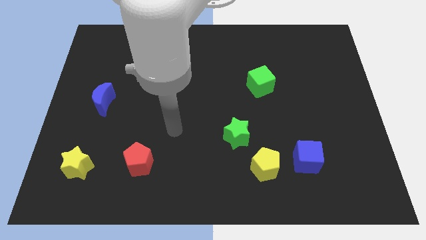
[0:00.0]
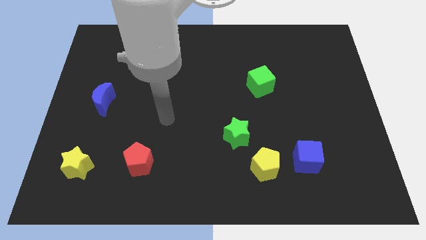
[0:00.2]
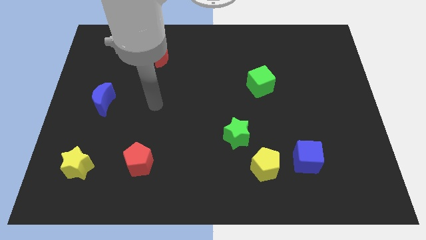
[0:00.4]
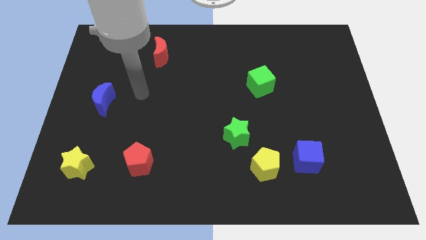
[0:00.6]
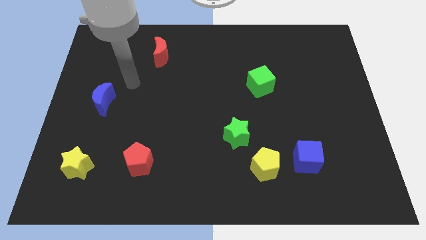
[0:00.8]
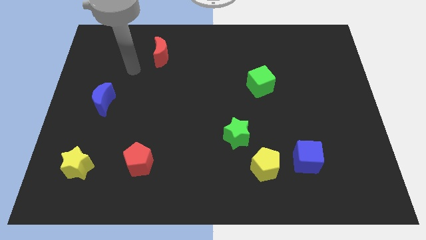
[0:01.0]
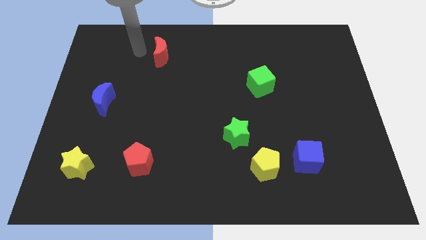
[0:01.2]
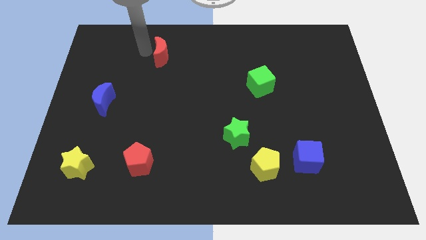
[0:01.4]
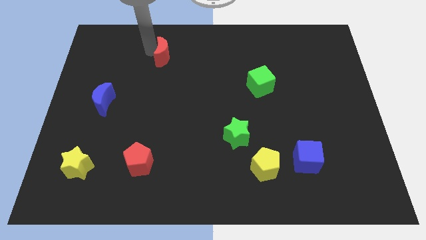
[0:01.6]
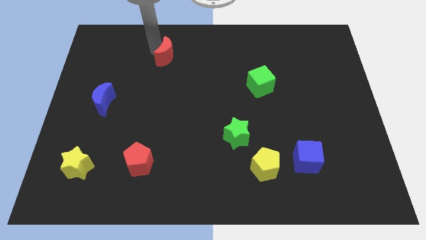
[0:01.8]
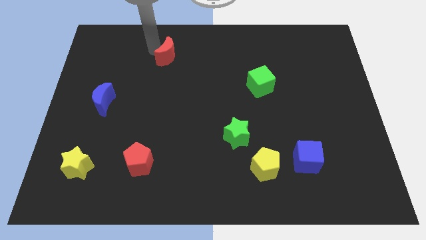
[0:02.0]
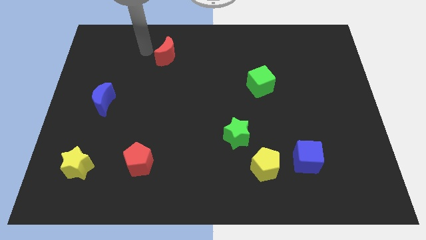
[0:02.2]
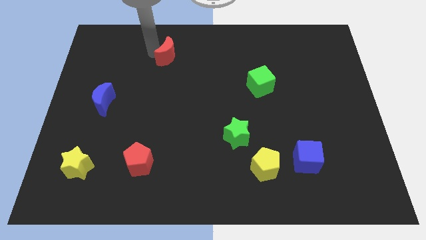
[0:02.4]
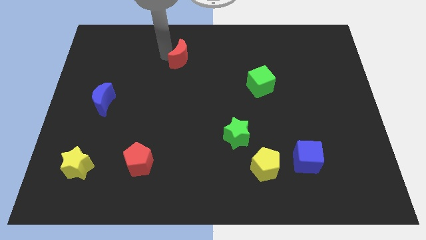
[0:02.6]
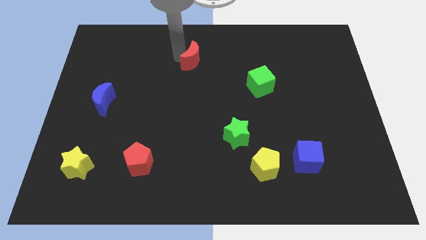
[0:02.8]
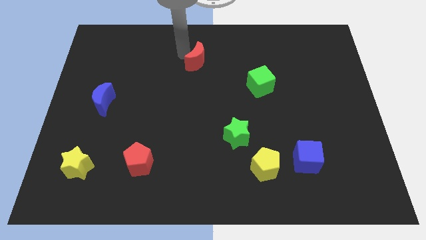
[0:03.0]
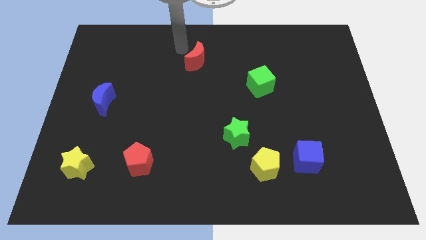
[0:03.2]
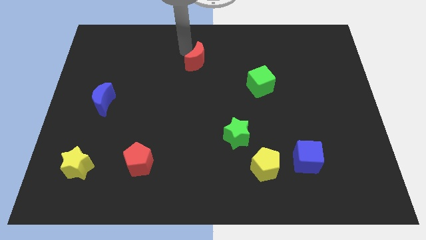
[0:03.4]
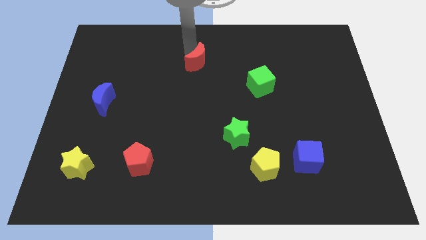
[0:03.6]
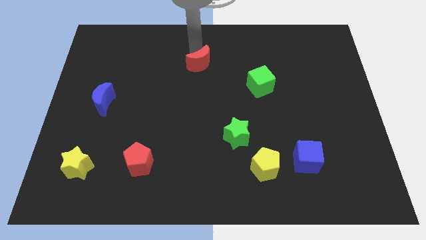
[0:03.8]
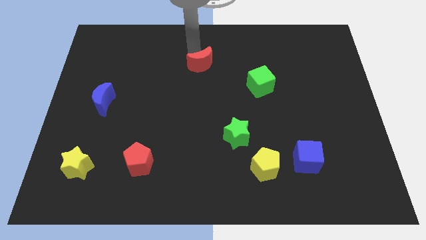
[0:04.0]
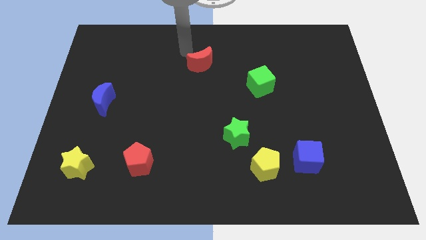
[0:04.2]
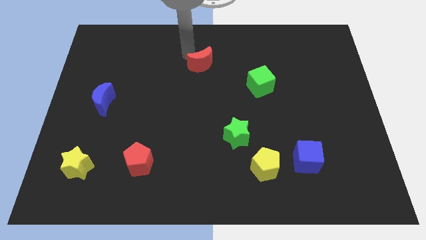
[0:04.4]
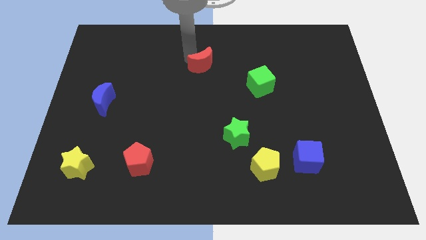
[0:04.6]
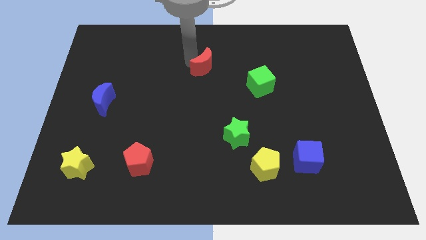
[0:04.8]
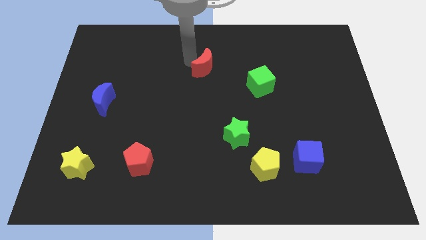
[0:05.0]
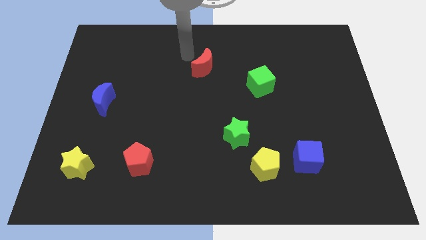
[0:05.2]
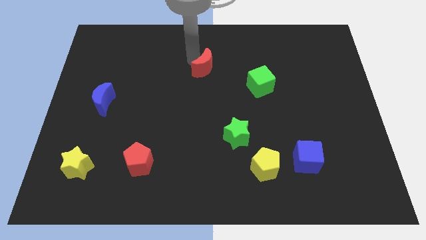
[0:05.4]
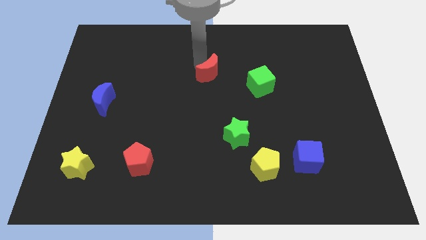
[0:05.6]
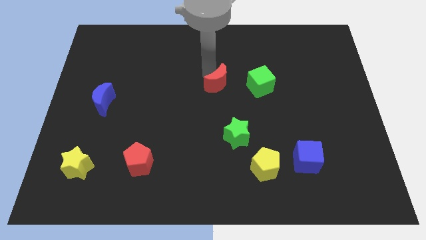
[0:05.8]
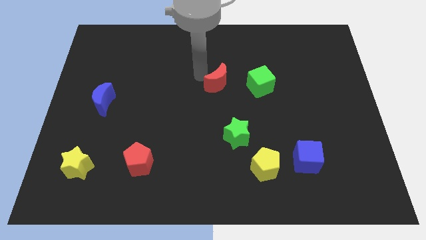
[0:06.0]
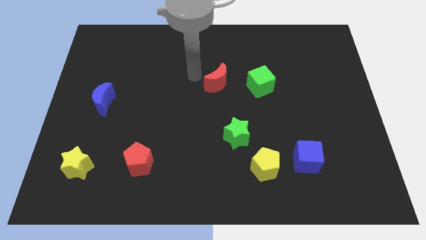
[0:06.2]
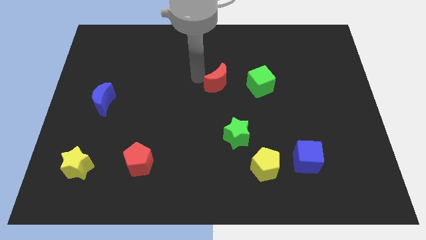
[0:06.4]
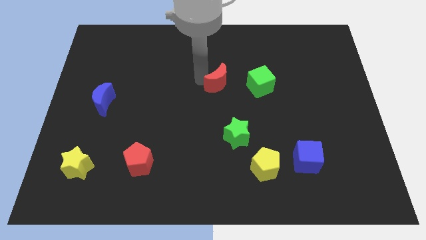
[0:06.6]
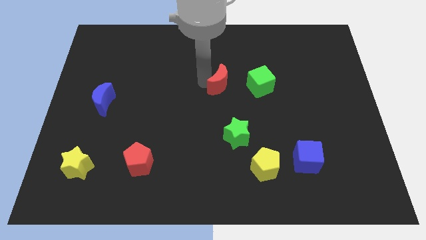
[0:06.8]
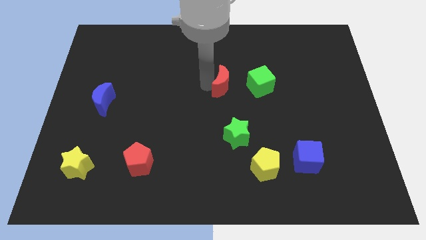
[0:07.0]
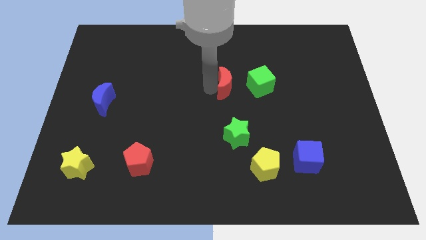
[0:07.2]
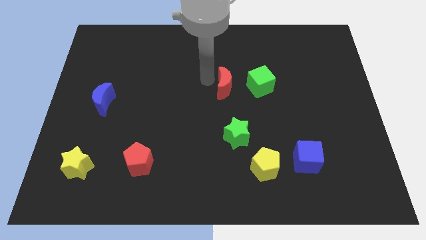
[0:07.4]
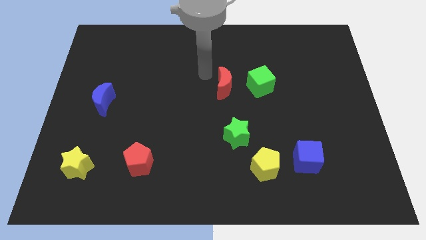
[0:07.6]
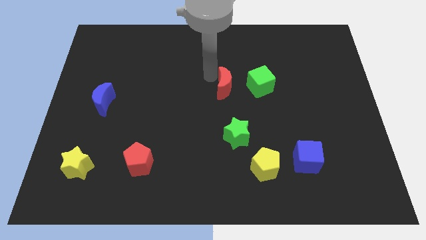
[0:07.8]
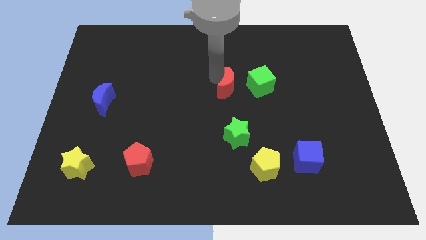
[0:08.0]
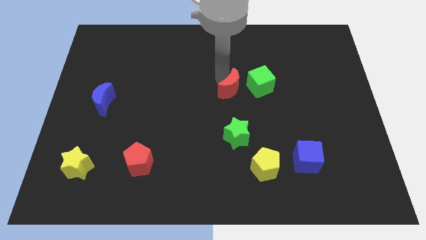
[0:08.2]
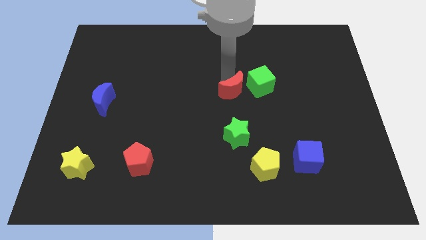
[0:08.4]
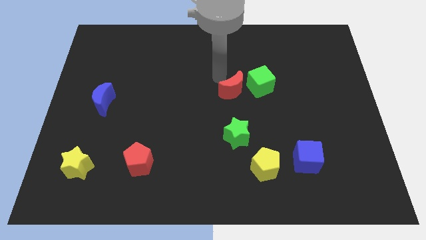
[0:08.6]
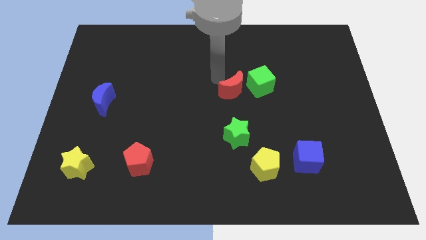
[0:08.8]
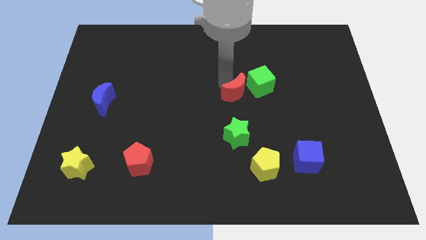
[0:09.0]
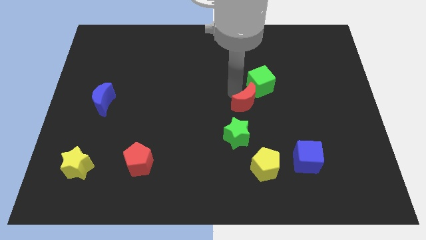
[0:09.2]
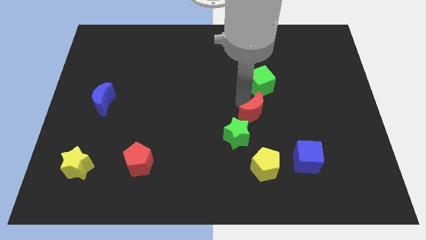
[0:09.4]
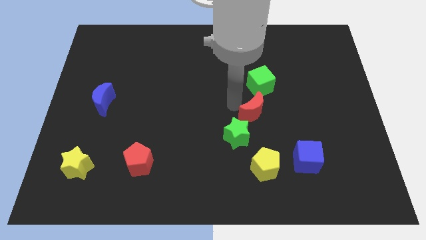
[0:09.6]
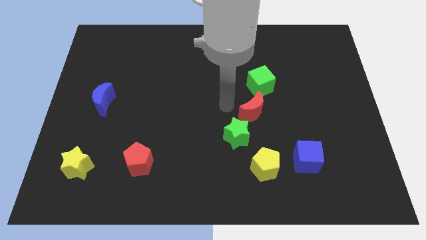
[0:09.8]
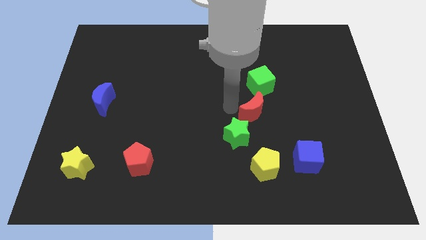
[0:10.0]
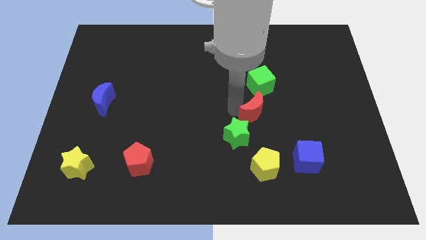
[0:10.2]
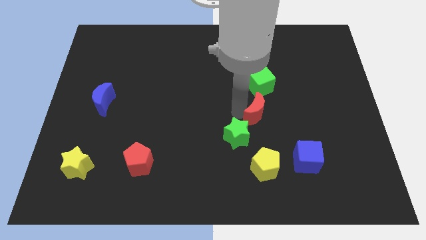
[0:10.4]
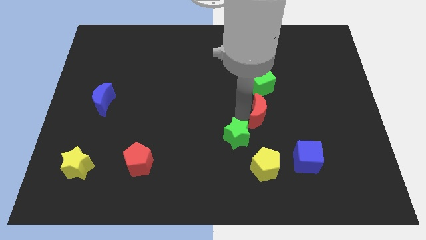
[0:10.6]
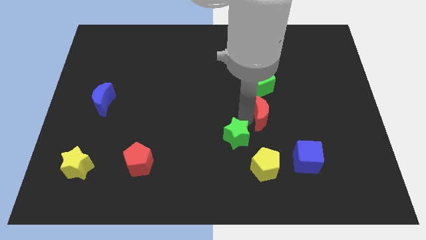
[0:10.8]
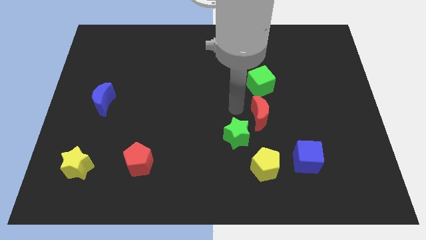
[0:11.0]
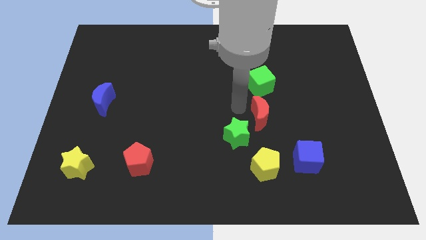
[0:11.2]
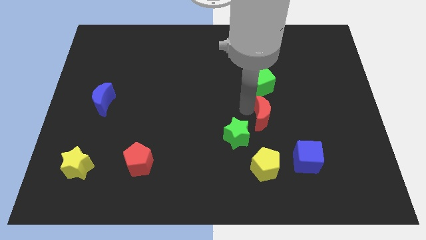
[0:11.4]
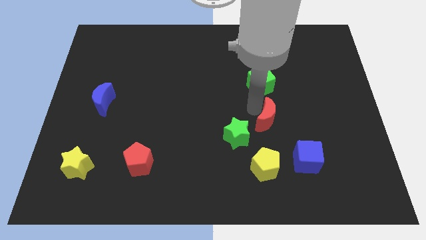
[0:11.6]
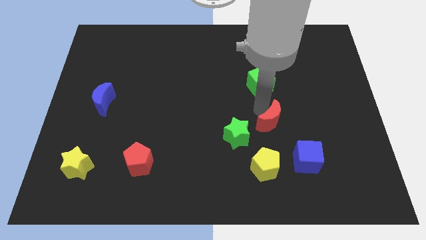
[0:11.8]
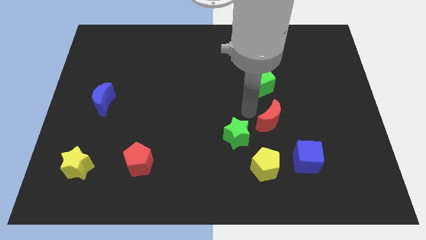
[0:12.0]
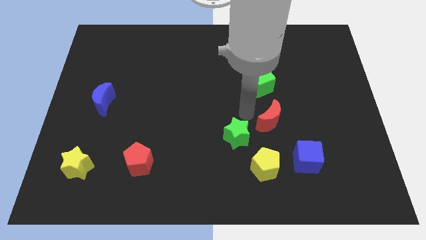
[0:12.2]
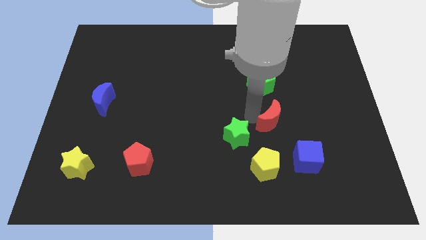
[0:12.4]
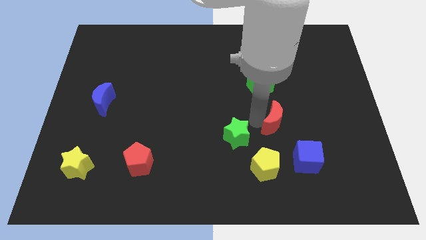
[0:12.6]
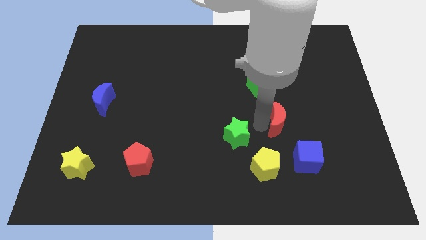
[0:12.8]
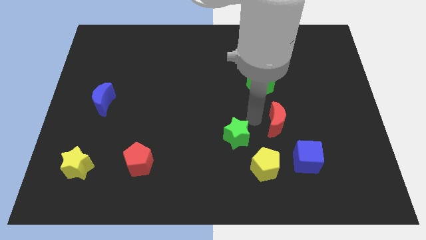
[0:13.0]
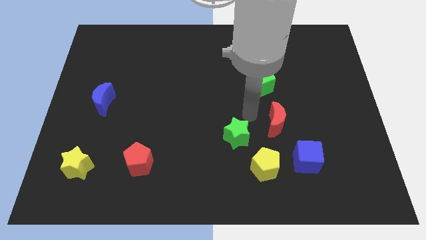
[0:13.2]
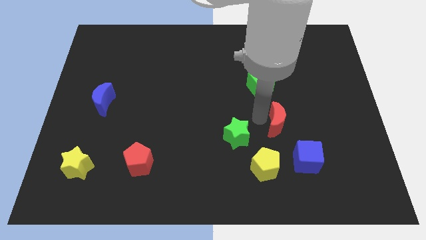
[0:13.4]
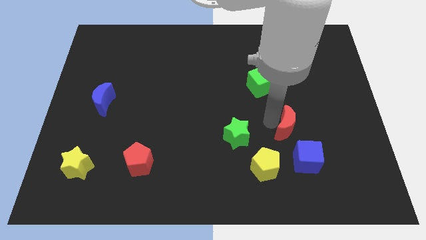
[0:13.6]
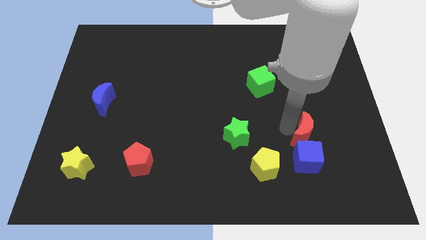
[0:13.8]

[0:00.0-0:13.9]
push the red moon to the top right of the blue cube
